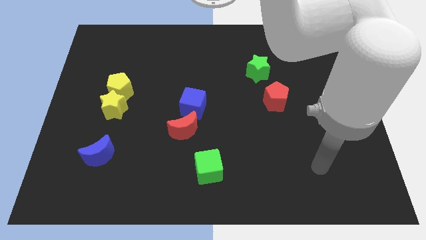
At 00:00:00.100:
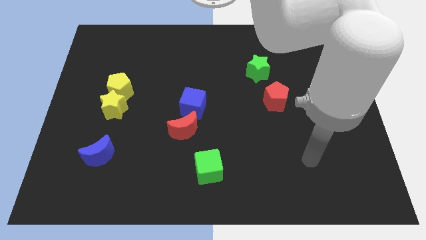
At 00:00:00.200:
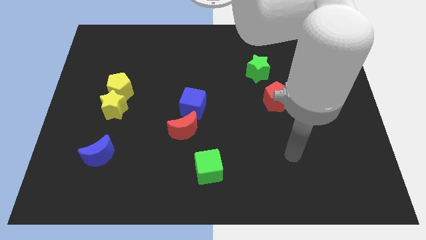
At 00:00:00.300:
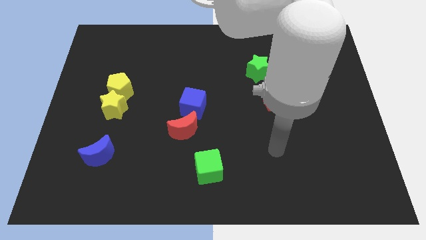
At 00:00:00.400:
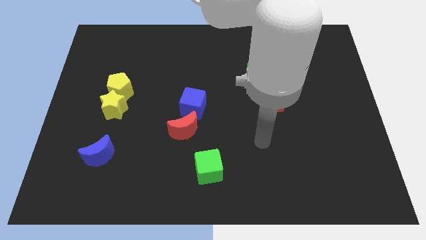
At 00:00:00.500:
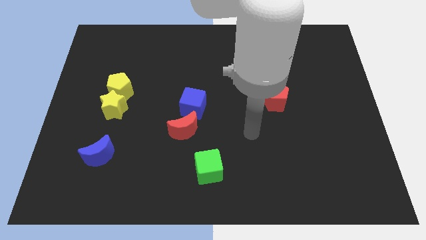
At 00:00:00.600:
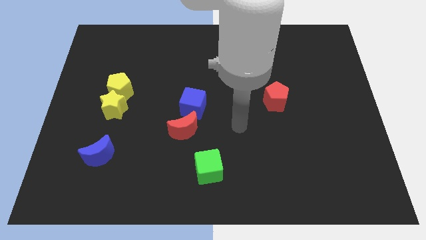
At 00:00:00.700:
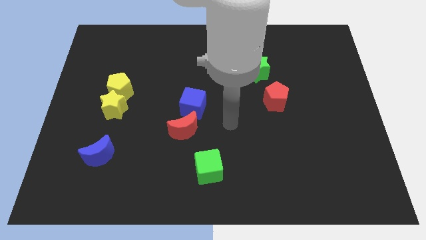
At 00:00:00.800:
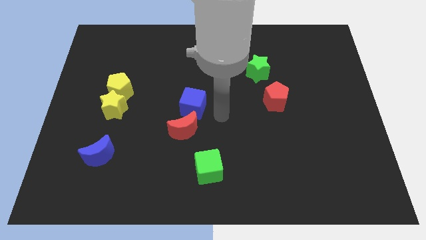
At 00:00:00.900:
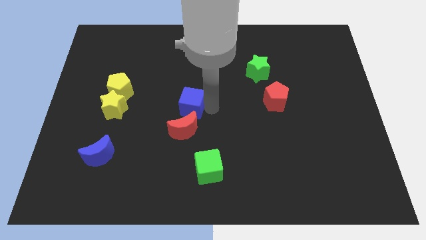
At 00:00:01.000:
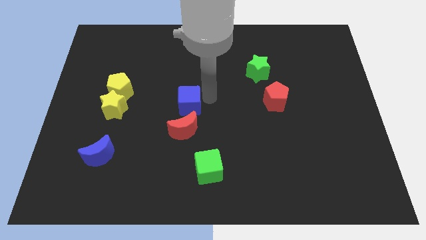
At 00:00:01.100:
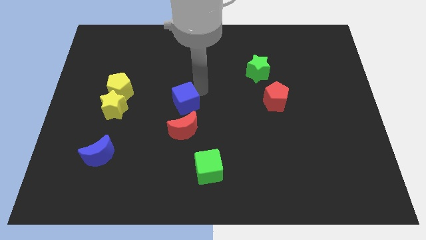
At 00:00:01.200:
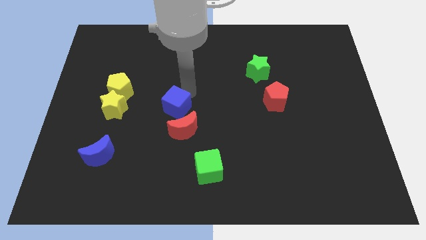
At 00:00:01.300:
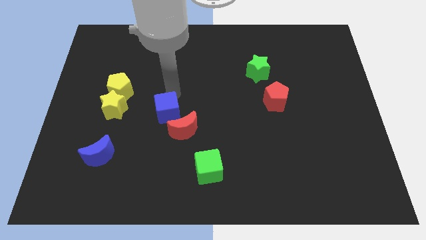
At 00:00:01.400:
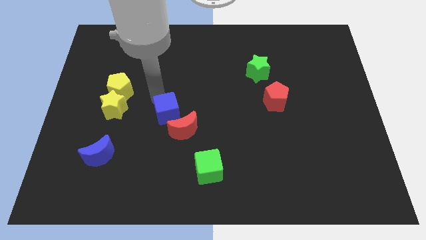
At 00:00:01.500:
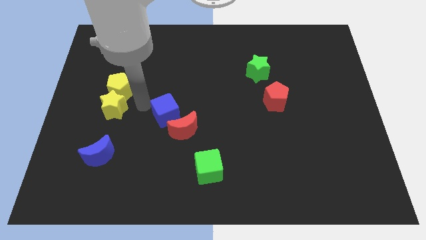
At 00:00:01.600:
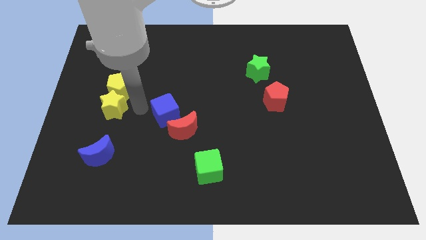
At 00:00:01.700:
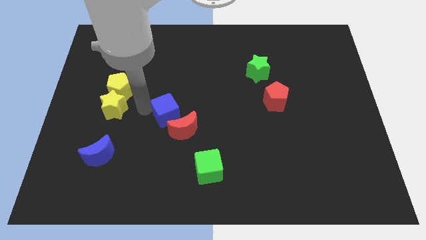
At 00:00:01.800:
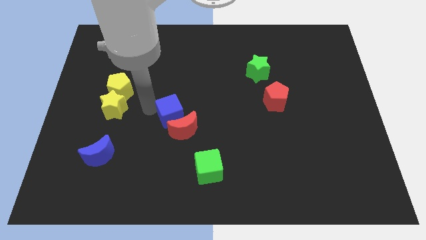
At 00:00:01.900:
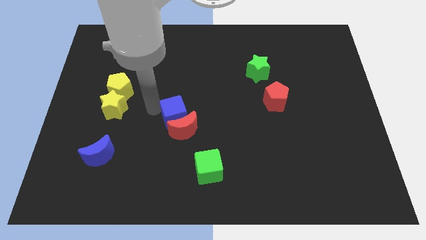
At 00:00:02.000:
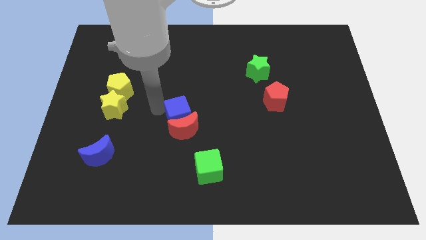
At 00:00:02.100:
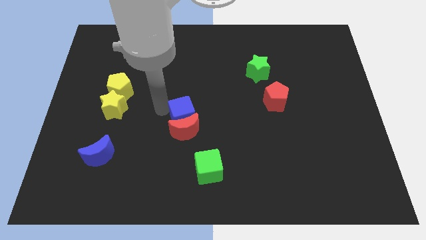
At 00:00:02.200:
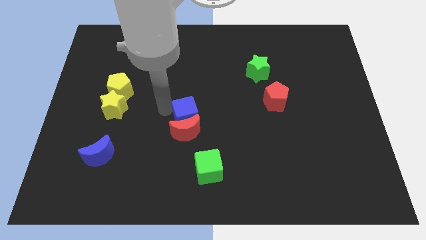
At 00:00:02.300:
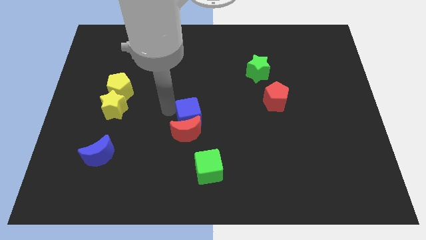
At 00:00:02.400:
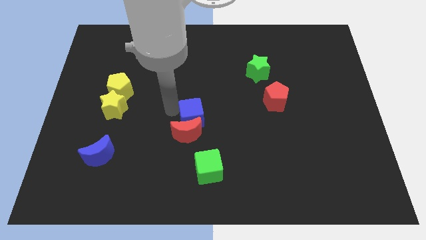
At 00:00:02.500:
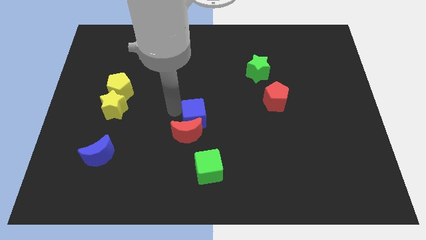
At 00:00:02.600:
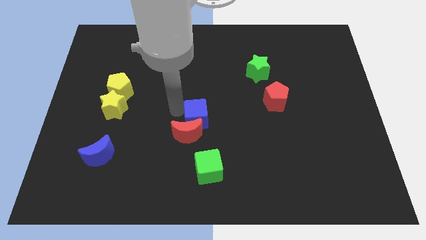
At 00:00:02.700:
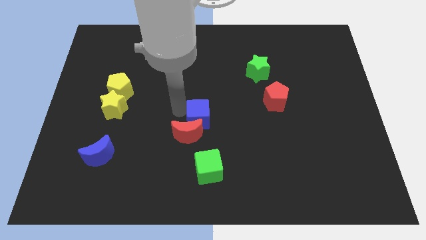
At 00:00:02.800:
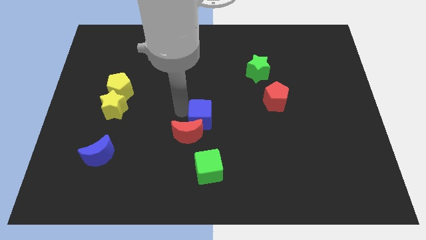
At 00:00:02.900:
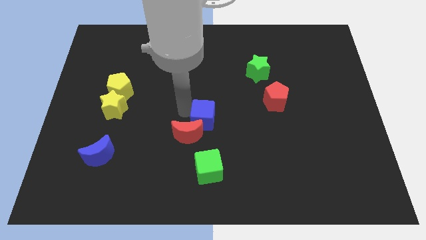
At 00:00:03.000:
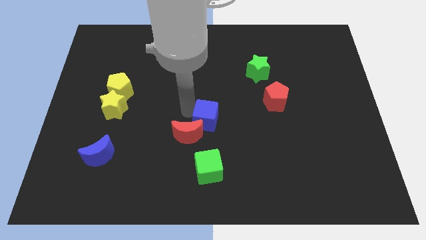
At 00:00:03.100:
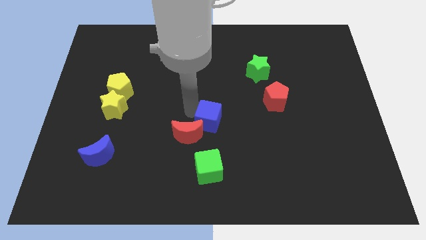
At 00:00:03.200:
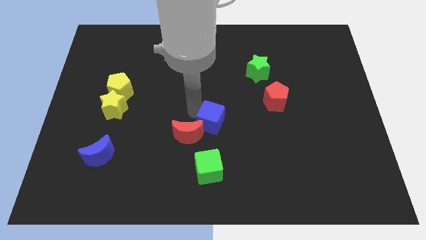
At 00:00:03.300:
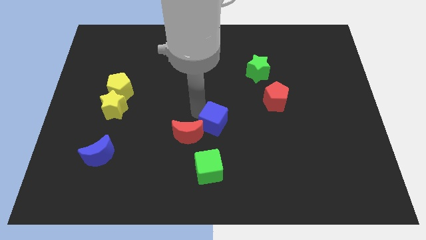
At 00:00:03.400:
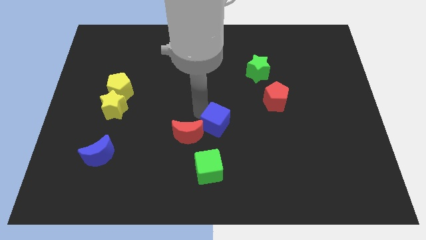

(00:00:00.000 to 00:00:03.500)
push the blue cube diagonally downwards and to the right a little

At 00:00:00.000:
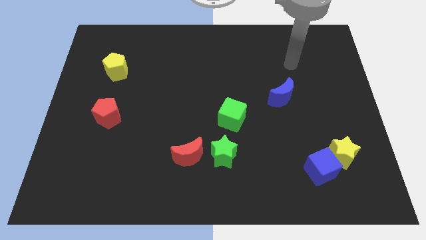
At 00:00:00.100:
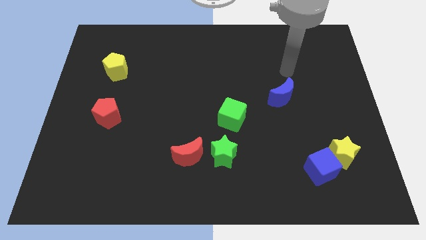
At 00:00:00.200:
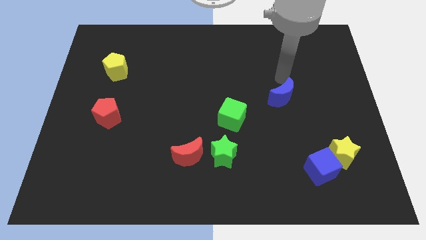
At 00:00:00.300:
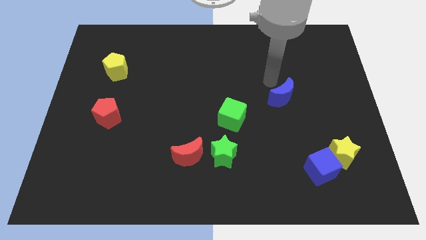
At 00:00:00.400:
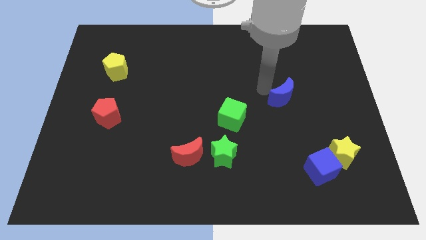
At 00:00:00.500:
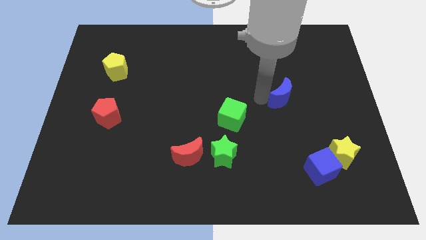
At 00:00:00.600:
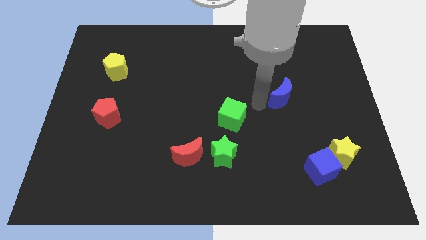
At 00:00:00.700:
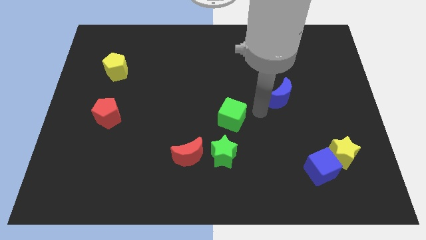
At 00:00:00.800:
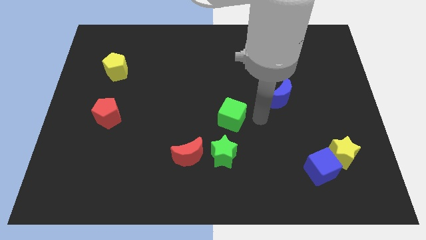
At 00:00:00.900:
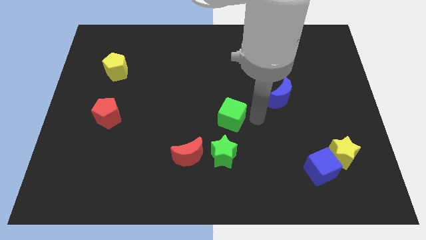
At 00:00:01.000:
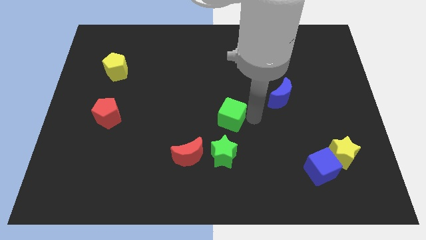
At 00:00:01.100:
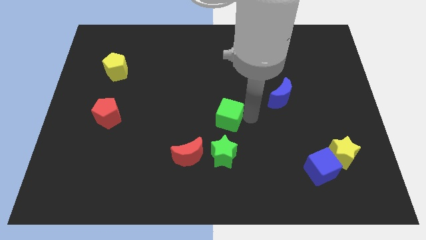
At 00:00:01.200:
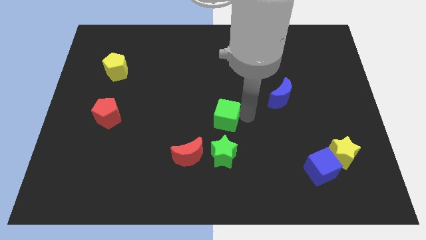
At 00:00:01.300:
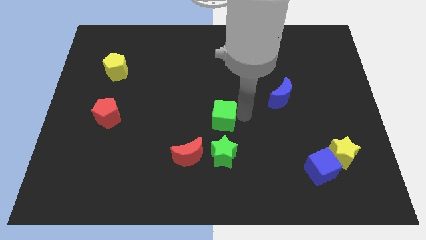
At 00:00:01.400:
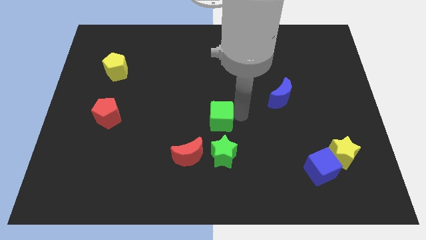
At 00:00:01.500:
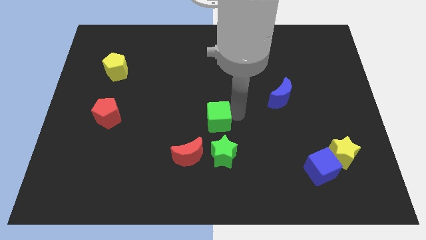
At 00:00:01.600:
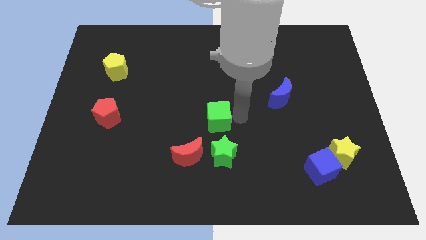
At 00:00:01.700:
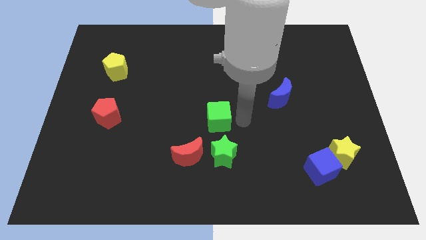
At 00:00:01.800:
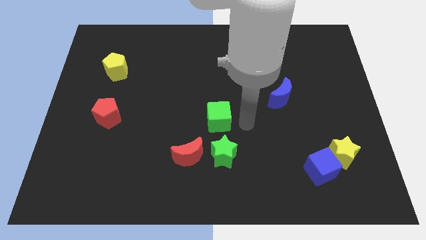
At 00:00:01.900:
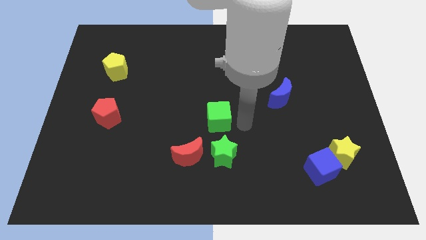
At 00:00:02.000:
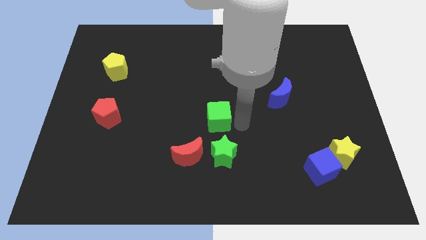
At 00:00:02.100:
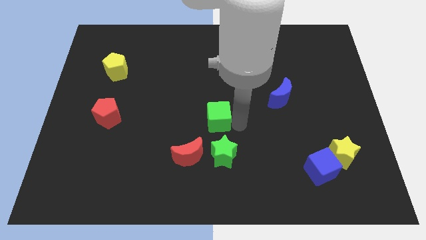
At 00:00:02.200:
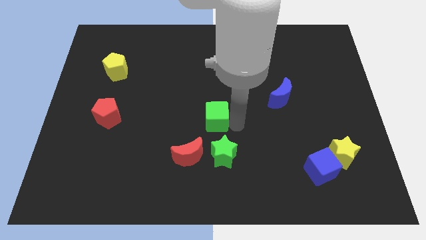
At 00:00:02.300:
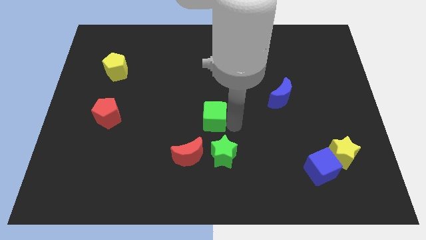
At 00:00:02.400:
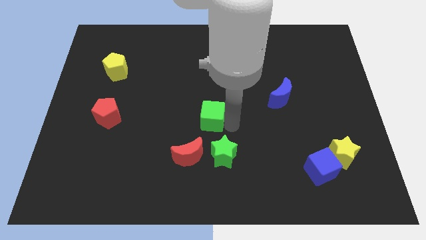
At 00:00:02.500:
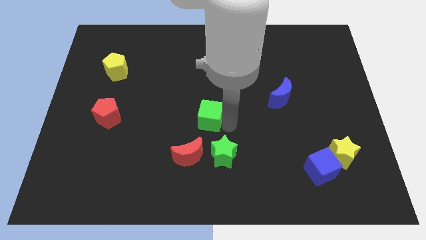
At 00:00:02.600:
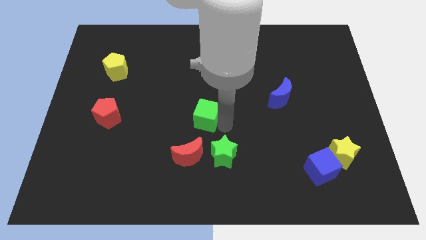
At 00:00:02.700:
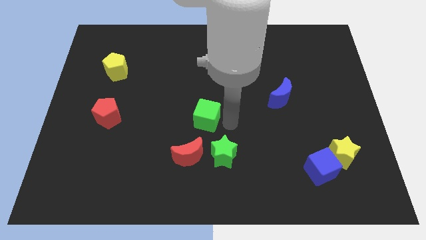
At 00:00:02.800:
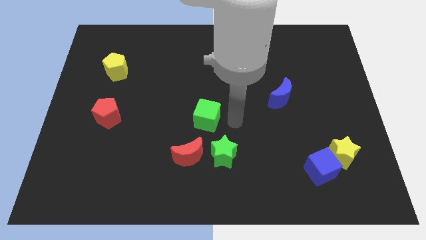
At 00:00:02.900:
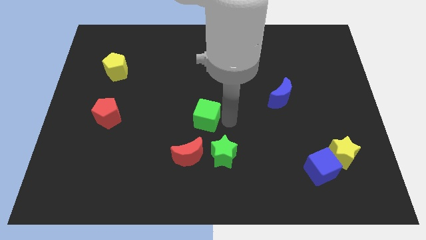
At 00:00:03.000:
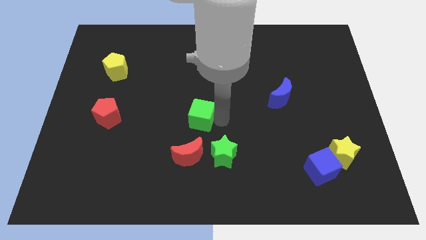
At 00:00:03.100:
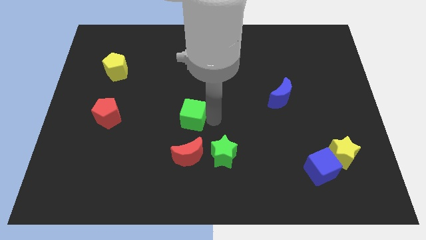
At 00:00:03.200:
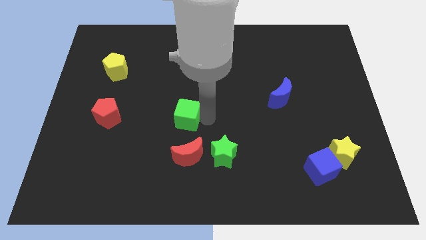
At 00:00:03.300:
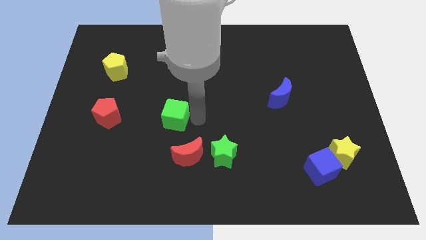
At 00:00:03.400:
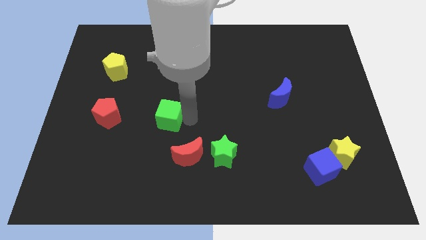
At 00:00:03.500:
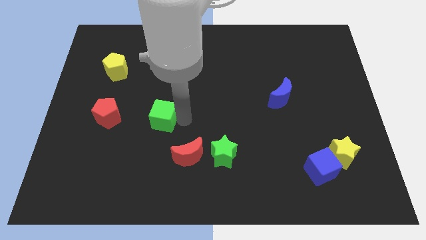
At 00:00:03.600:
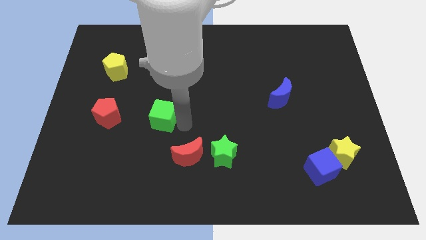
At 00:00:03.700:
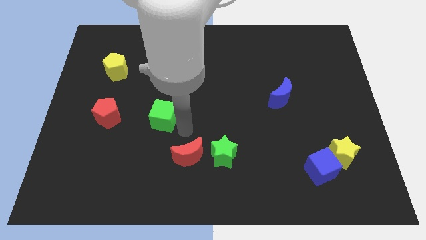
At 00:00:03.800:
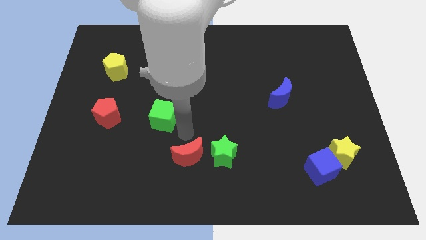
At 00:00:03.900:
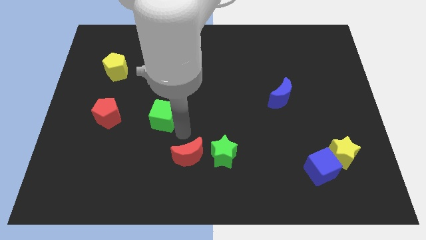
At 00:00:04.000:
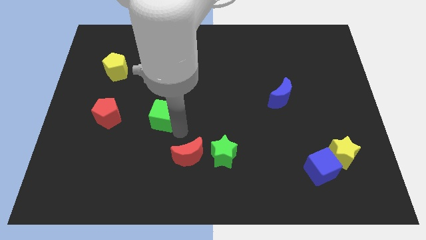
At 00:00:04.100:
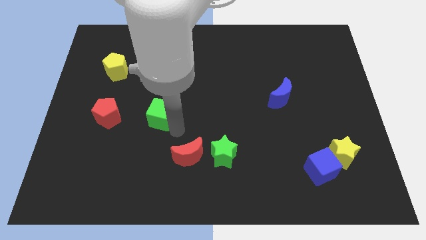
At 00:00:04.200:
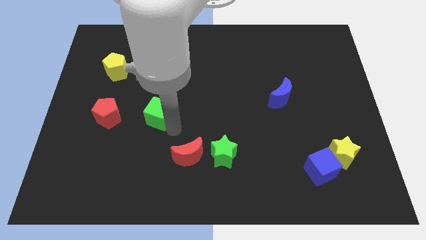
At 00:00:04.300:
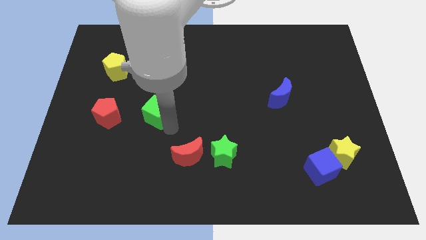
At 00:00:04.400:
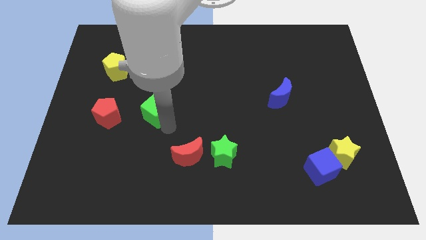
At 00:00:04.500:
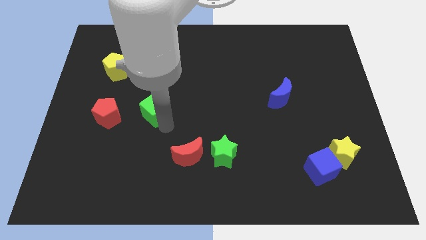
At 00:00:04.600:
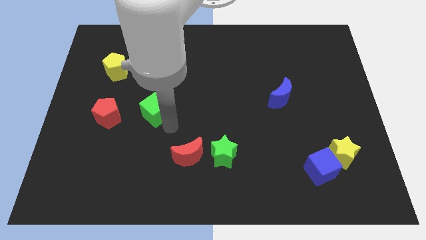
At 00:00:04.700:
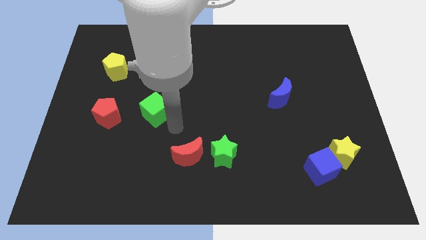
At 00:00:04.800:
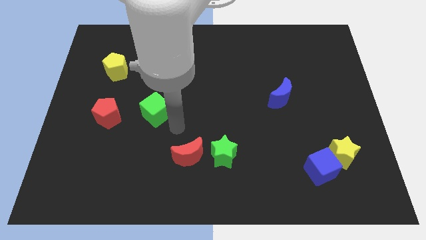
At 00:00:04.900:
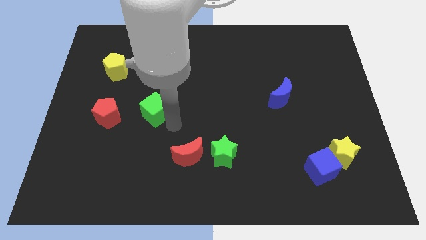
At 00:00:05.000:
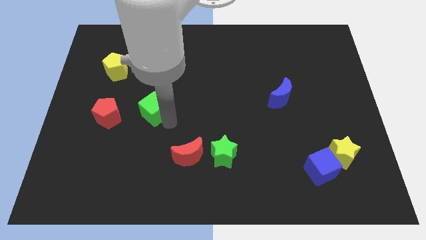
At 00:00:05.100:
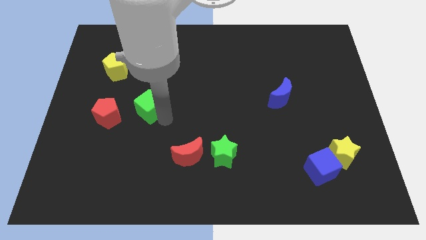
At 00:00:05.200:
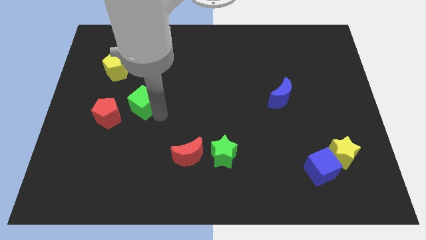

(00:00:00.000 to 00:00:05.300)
slide the green cube to the left
